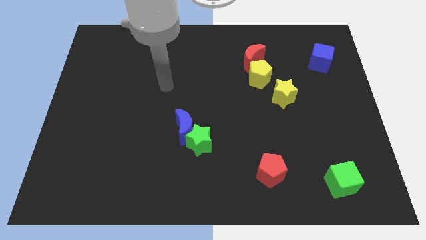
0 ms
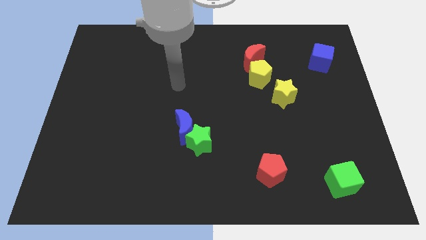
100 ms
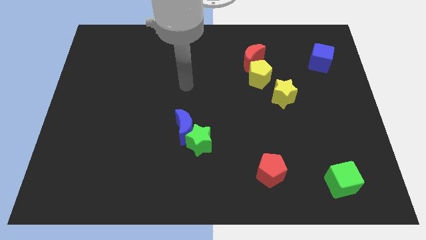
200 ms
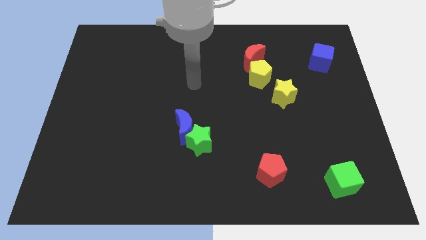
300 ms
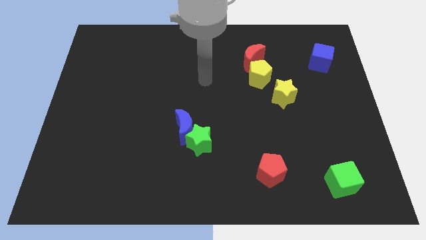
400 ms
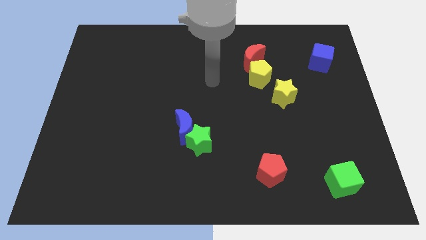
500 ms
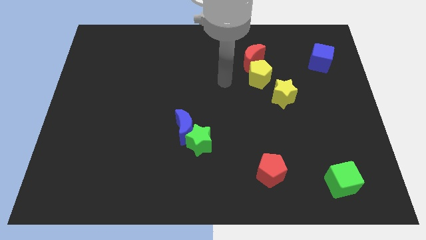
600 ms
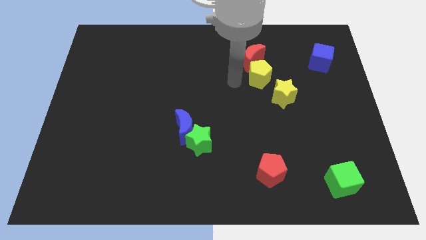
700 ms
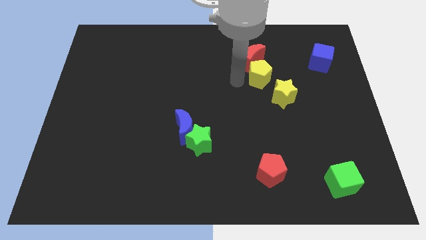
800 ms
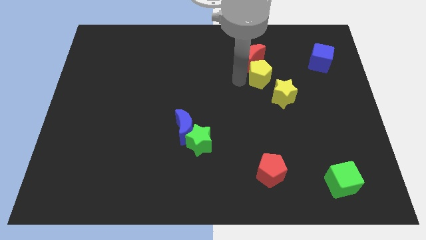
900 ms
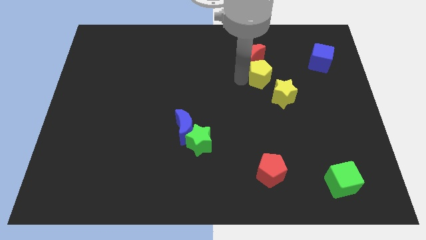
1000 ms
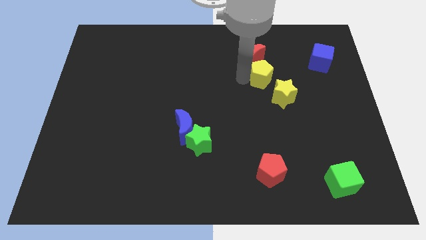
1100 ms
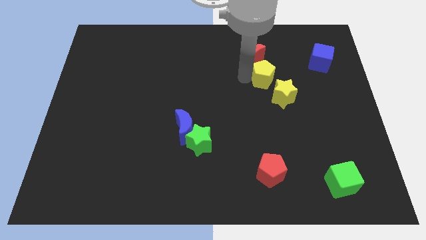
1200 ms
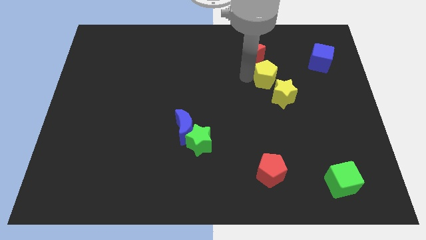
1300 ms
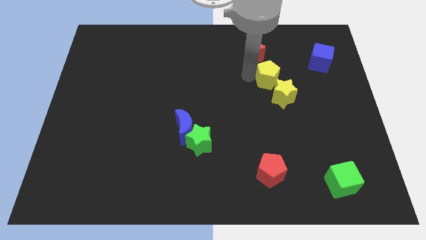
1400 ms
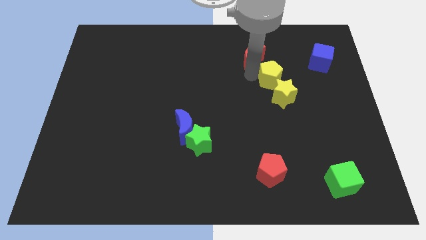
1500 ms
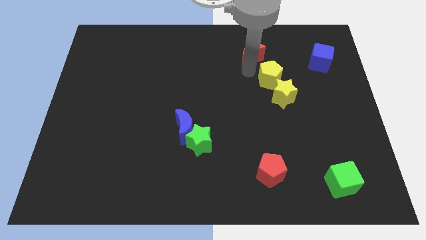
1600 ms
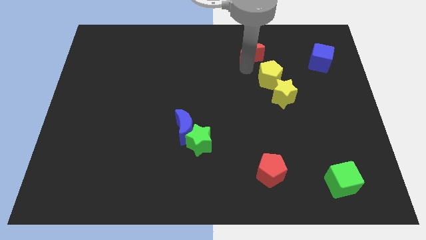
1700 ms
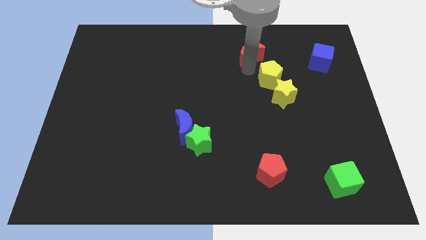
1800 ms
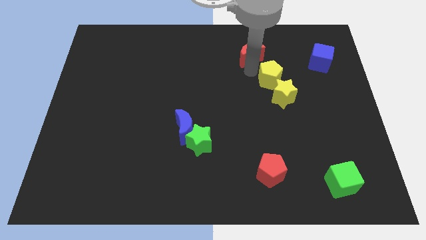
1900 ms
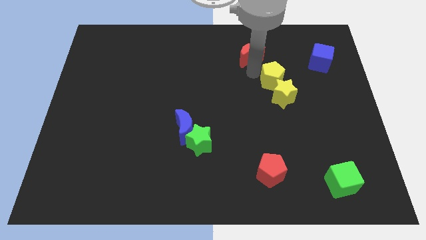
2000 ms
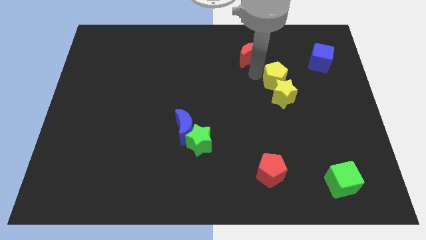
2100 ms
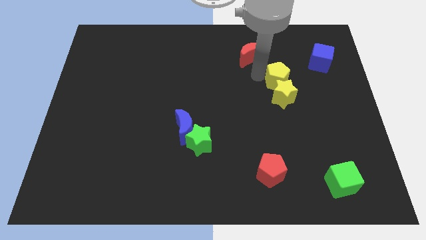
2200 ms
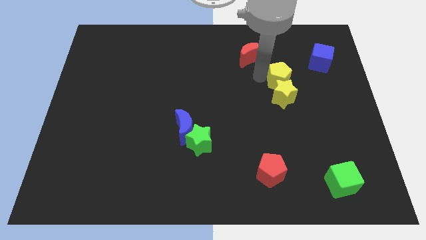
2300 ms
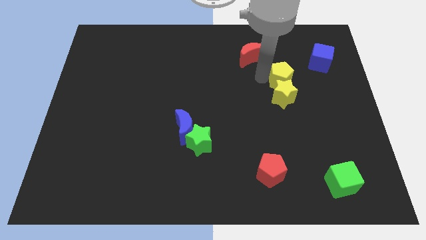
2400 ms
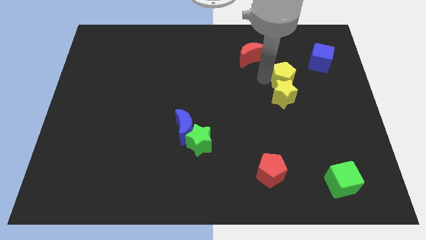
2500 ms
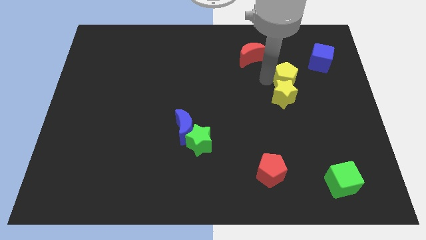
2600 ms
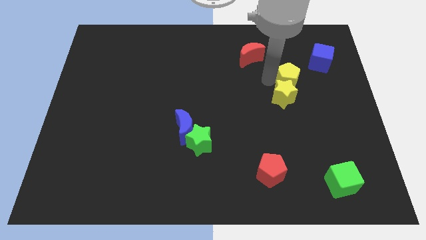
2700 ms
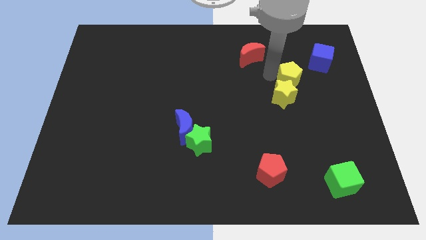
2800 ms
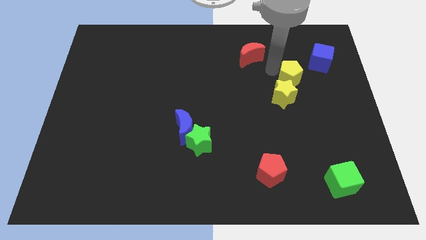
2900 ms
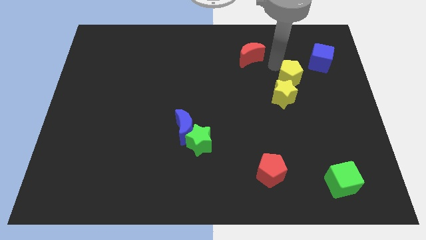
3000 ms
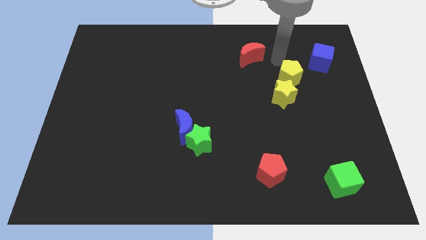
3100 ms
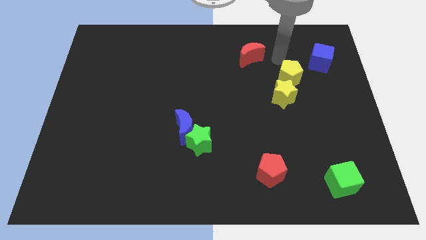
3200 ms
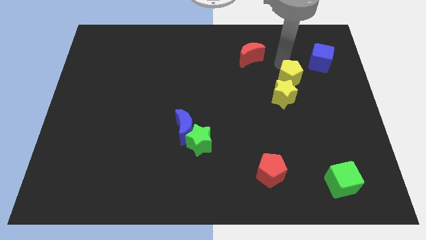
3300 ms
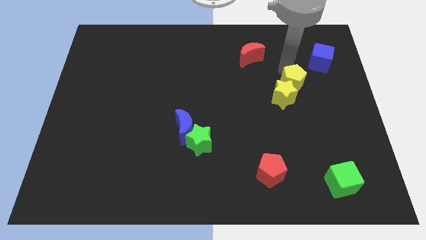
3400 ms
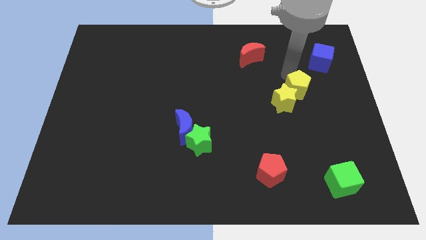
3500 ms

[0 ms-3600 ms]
move the yellow pentagon diagonally downwards and to the right a bit

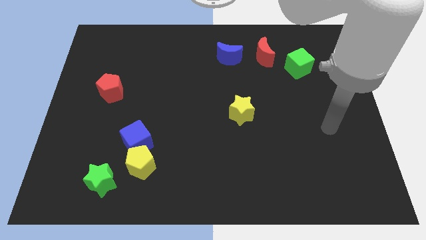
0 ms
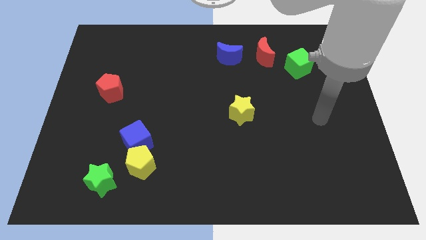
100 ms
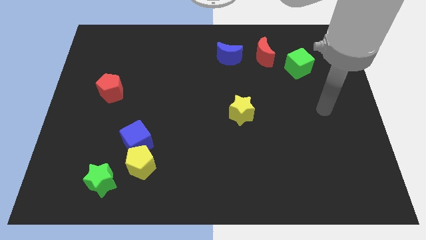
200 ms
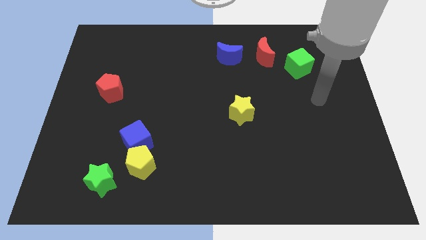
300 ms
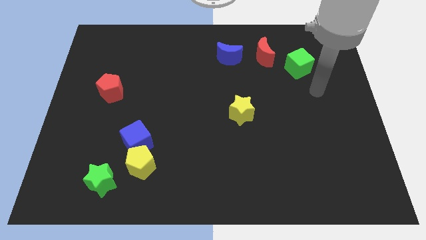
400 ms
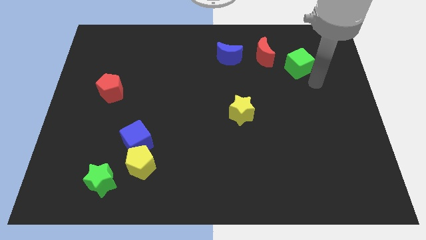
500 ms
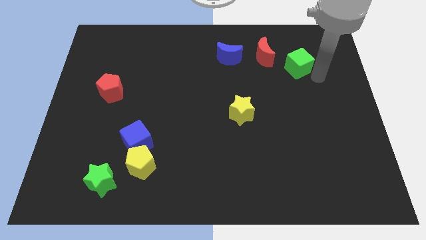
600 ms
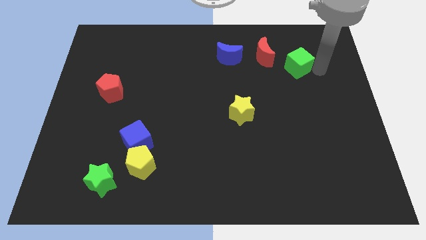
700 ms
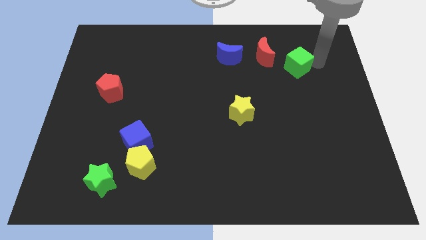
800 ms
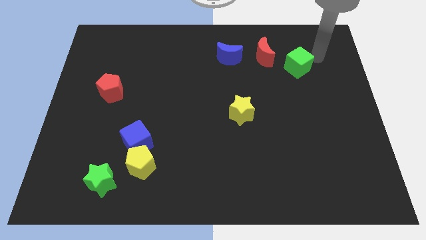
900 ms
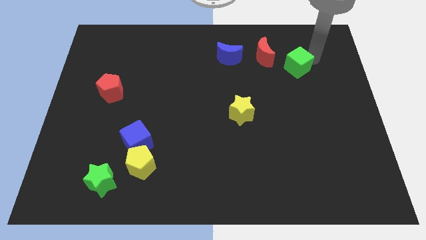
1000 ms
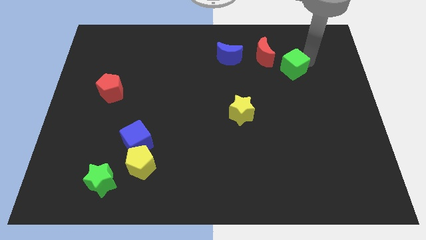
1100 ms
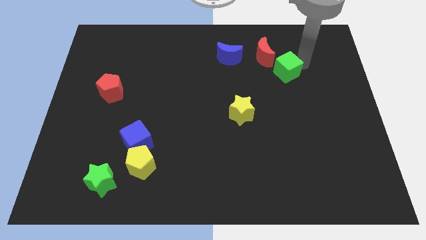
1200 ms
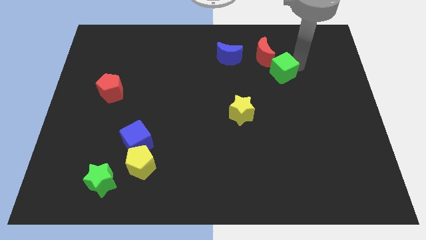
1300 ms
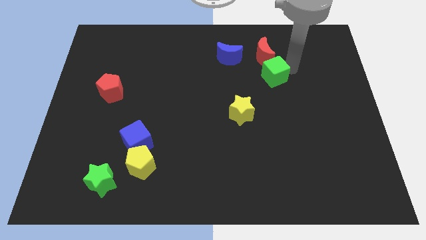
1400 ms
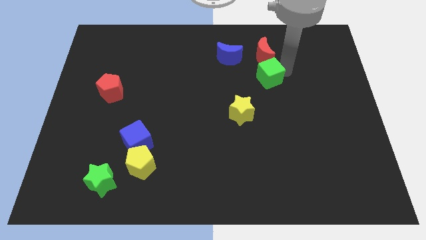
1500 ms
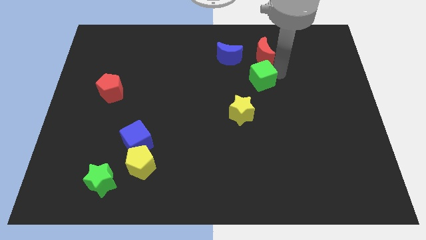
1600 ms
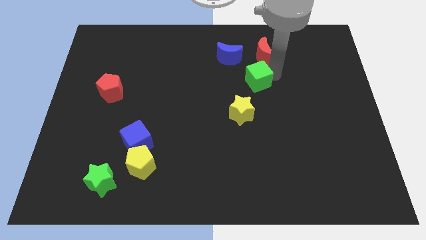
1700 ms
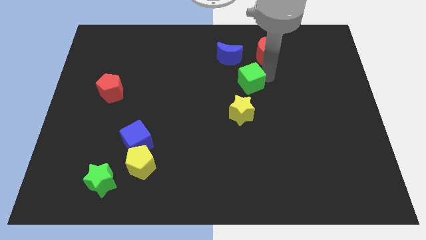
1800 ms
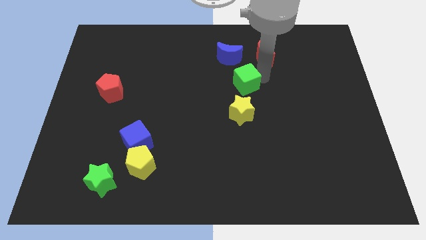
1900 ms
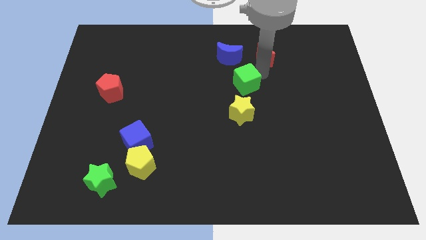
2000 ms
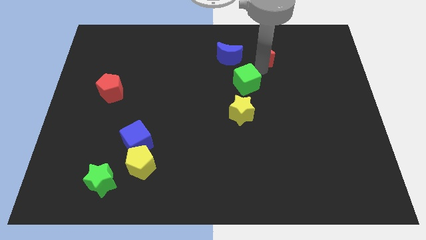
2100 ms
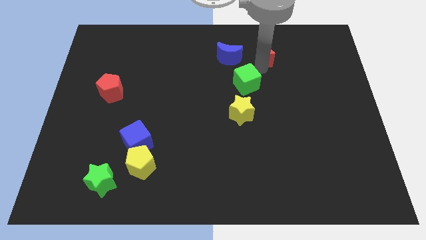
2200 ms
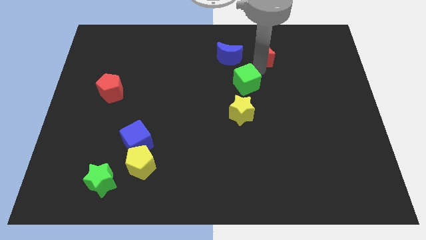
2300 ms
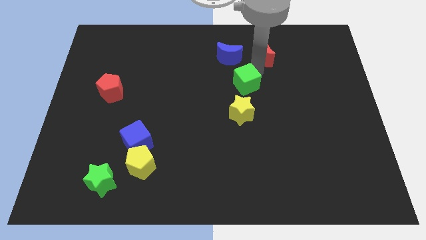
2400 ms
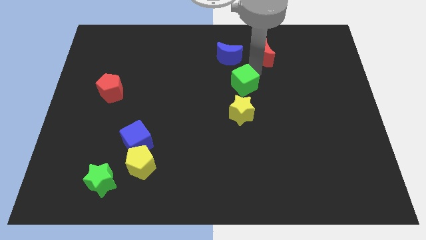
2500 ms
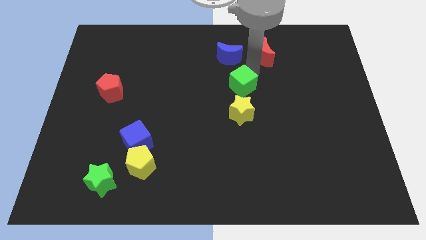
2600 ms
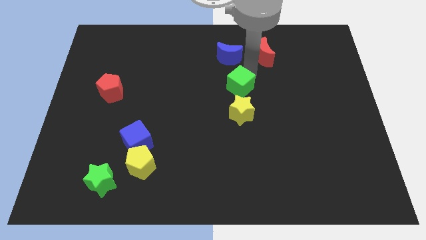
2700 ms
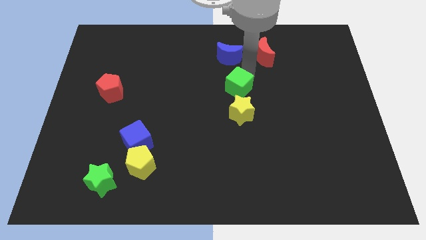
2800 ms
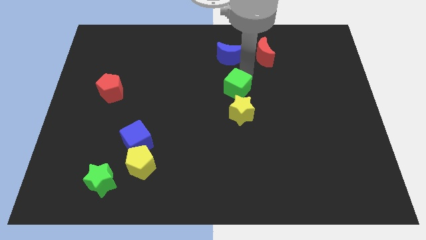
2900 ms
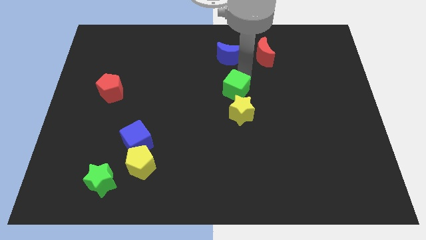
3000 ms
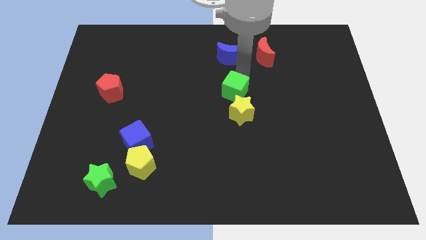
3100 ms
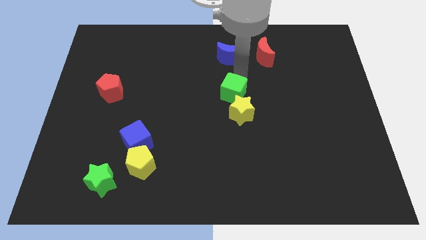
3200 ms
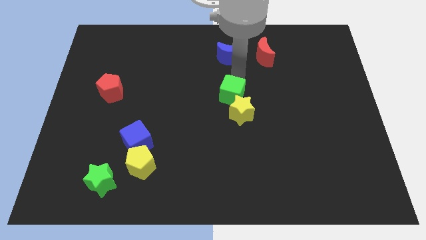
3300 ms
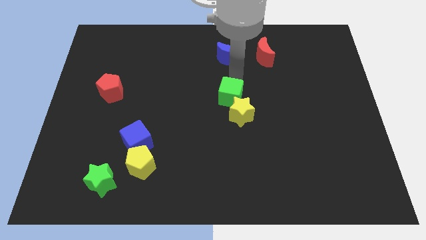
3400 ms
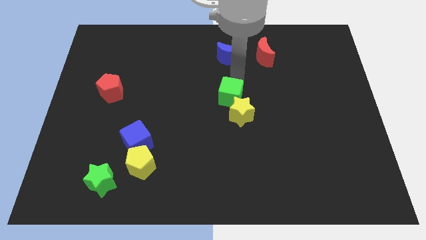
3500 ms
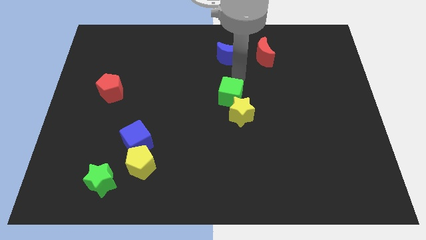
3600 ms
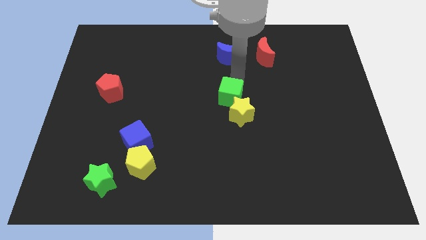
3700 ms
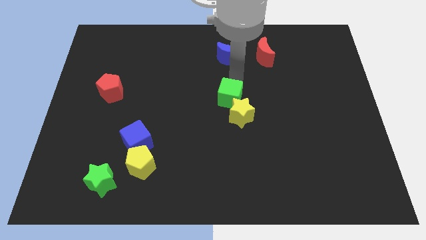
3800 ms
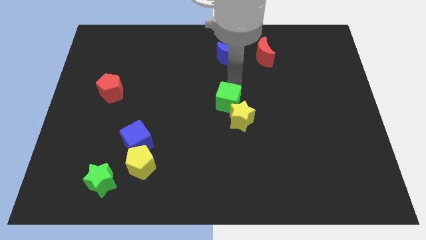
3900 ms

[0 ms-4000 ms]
push the green cube downwards and then left

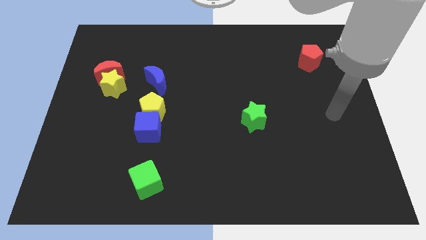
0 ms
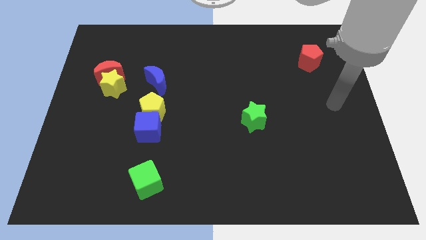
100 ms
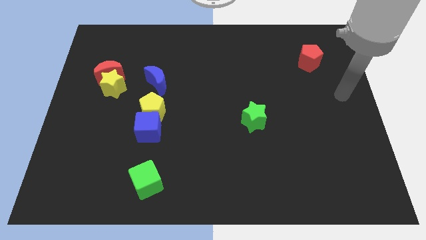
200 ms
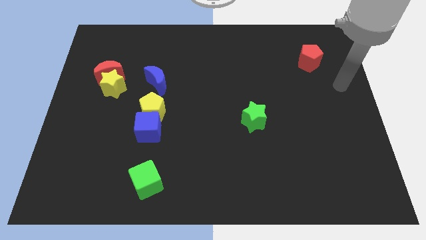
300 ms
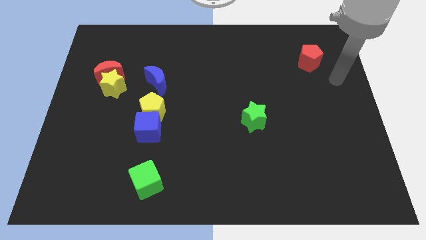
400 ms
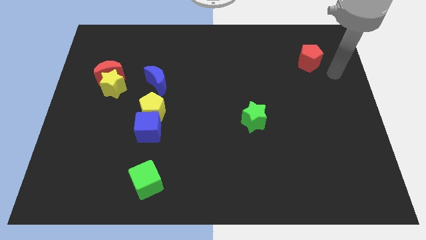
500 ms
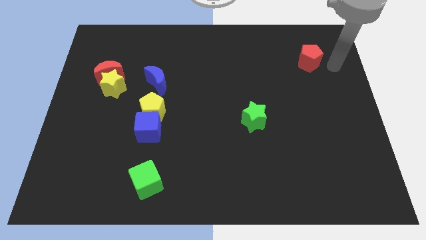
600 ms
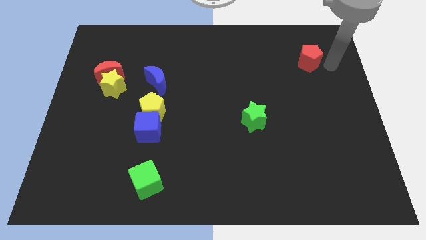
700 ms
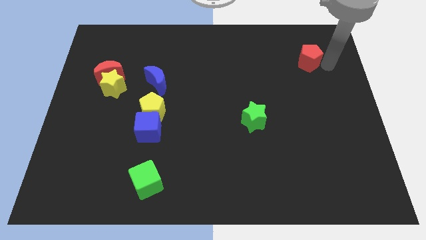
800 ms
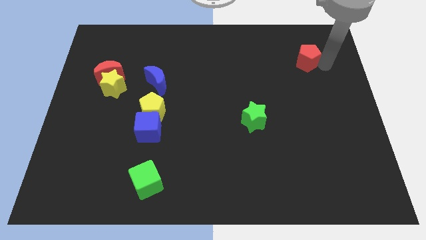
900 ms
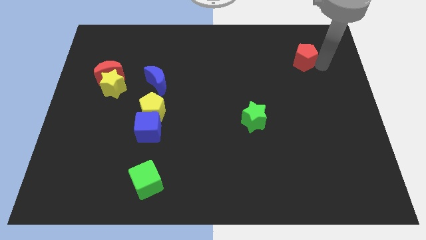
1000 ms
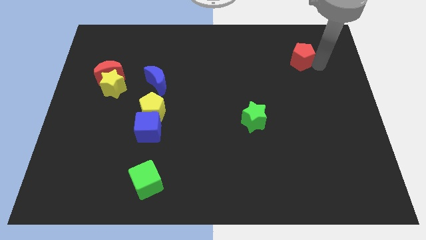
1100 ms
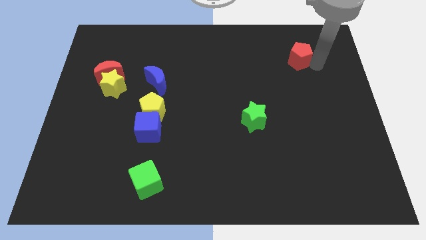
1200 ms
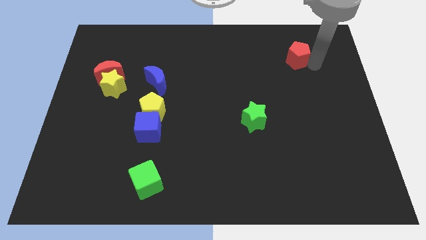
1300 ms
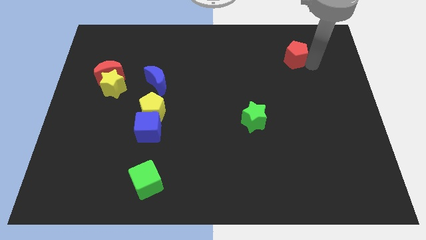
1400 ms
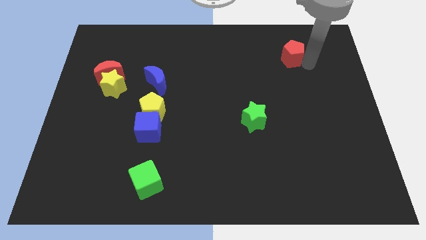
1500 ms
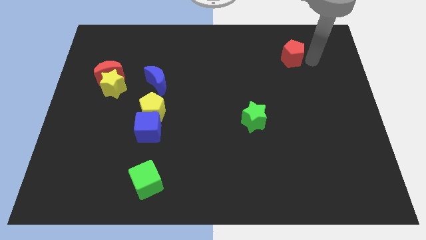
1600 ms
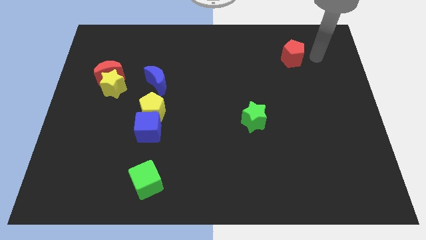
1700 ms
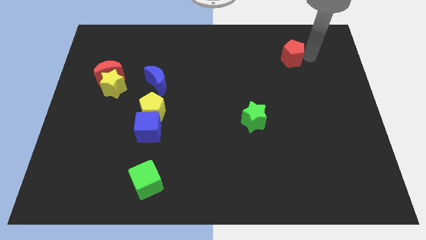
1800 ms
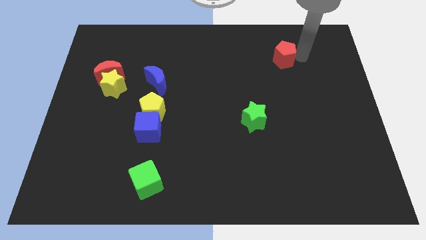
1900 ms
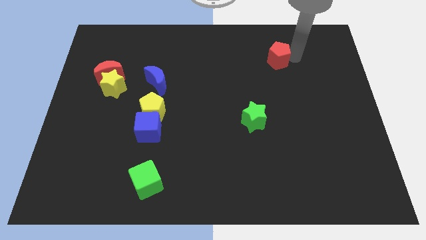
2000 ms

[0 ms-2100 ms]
slightly move the red pentagon to the left
